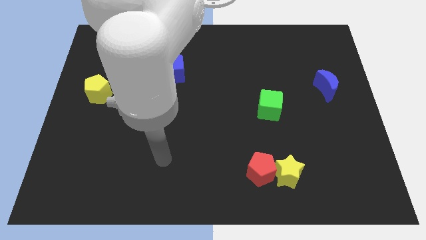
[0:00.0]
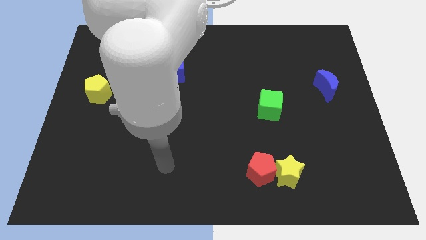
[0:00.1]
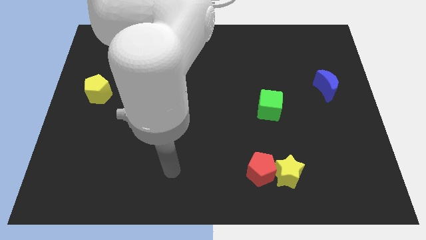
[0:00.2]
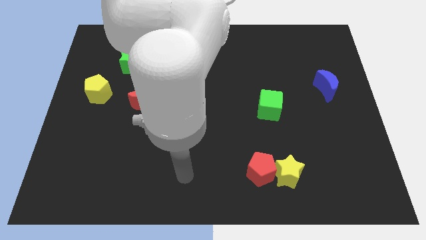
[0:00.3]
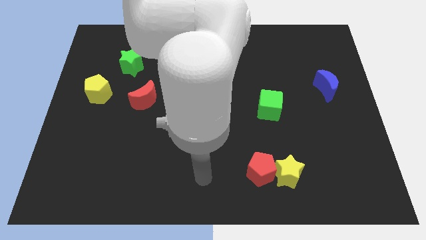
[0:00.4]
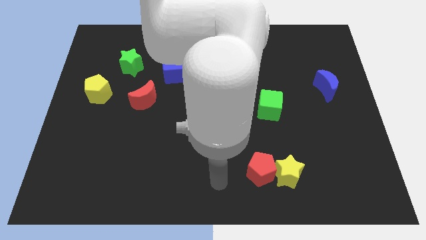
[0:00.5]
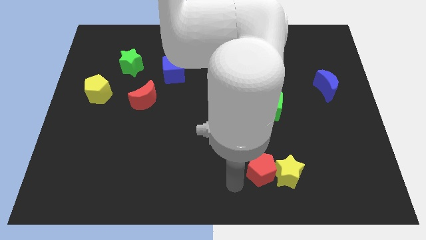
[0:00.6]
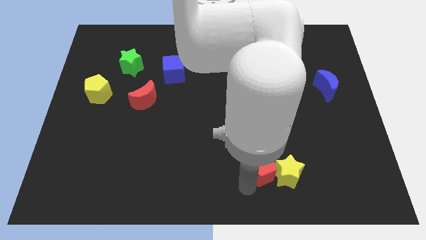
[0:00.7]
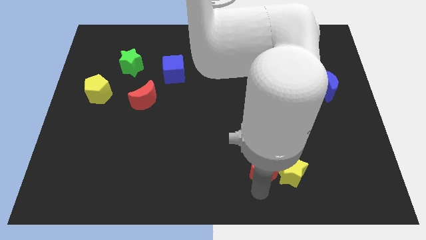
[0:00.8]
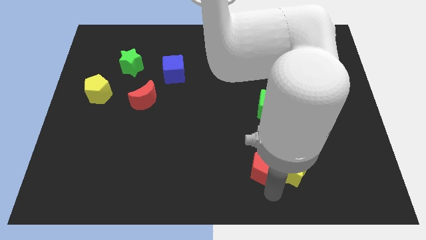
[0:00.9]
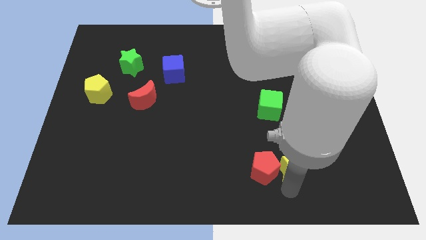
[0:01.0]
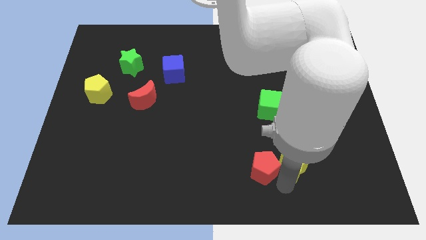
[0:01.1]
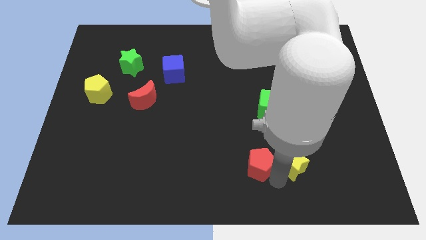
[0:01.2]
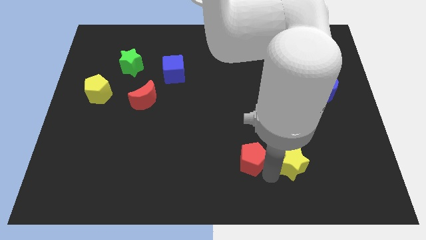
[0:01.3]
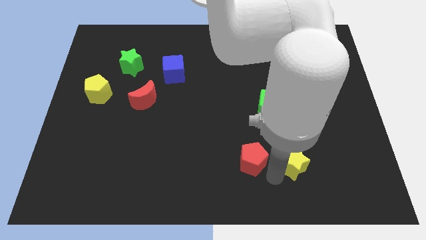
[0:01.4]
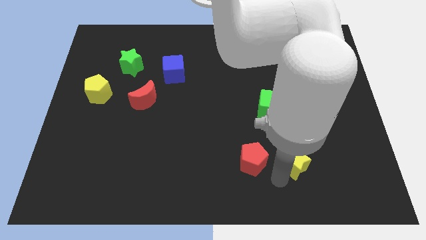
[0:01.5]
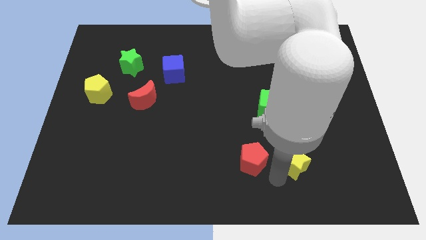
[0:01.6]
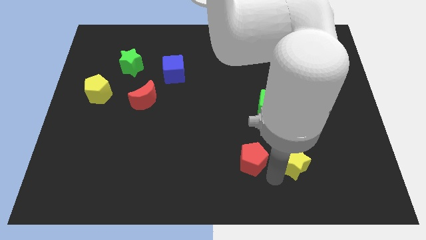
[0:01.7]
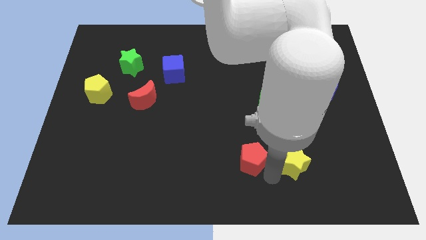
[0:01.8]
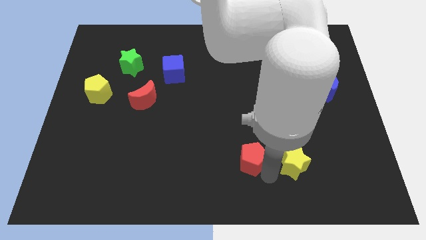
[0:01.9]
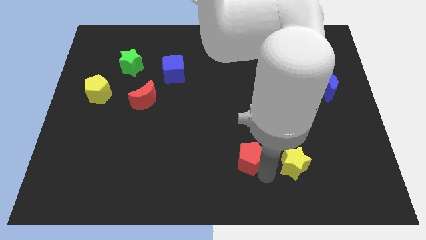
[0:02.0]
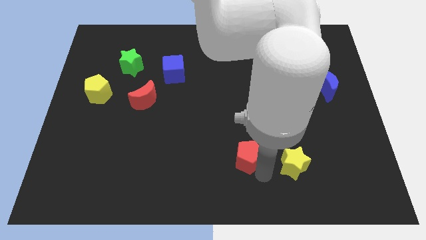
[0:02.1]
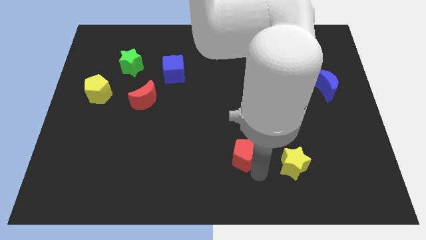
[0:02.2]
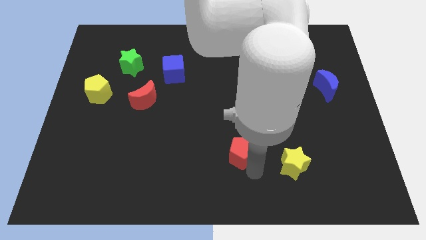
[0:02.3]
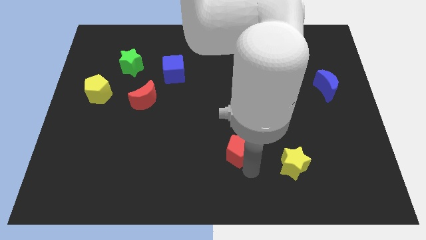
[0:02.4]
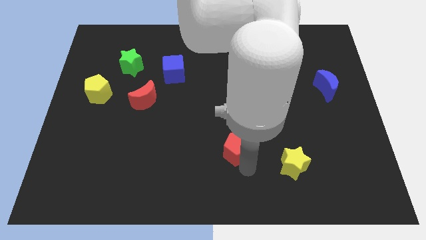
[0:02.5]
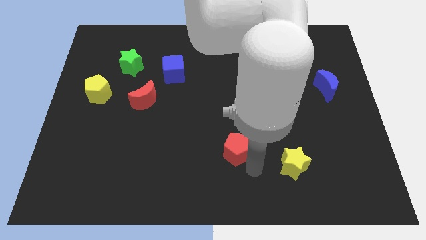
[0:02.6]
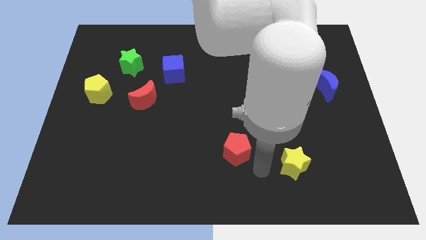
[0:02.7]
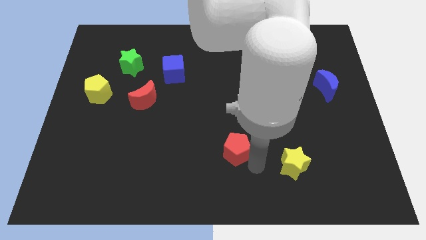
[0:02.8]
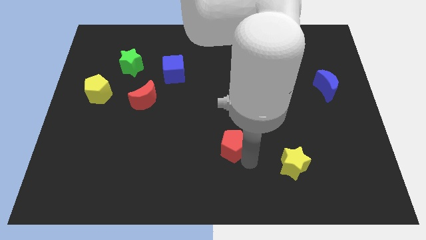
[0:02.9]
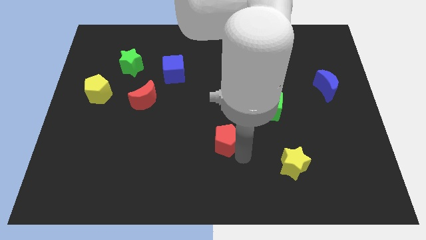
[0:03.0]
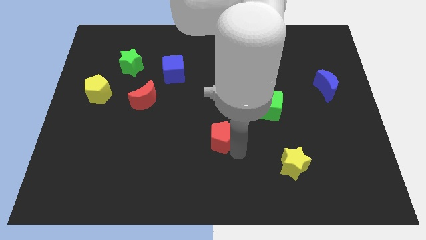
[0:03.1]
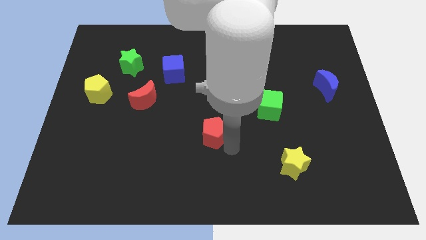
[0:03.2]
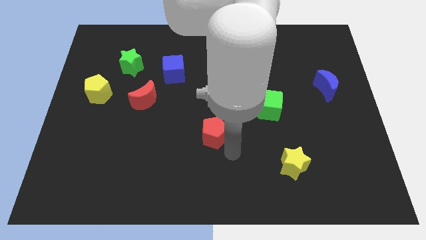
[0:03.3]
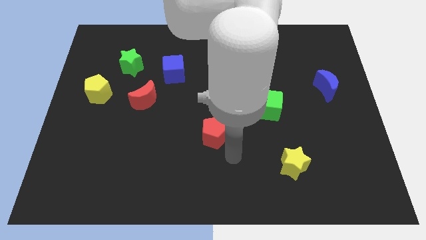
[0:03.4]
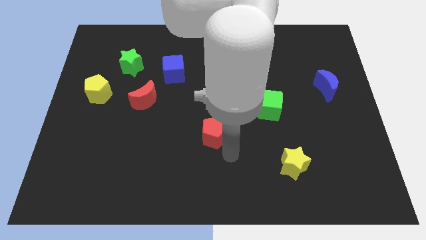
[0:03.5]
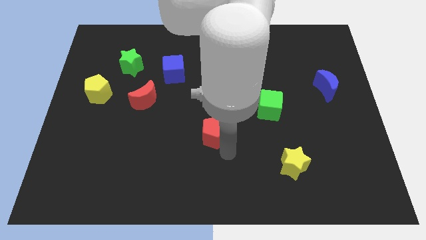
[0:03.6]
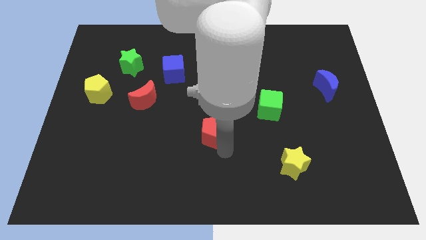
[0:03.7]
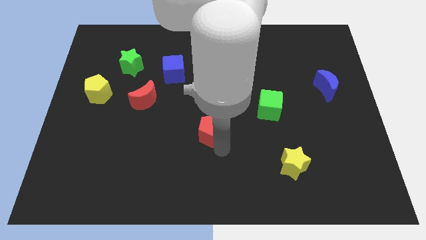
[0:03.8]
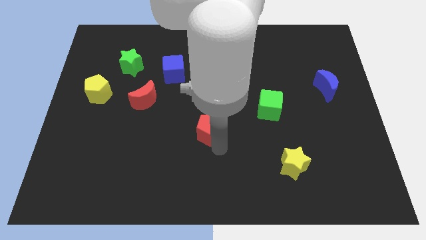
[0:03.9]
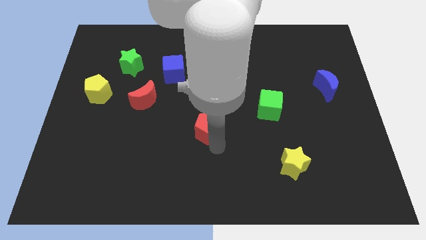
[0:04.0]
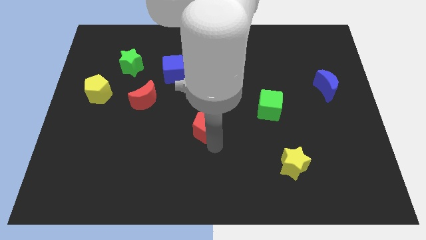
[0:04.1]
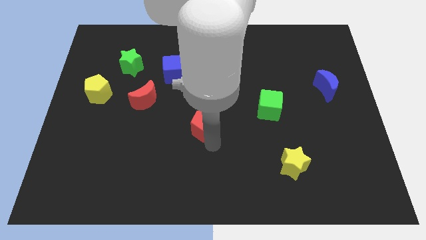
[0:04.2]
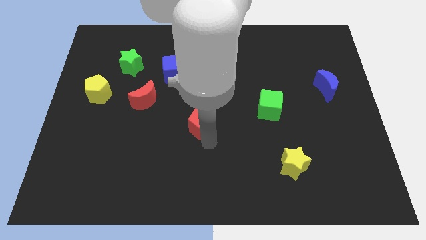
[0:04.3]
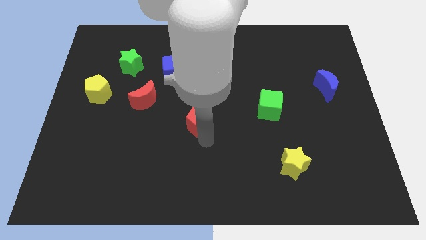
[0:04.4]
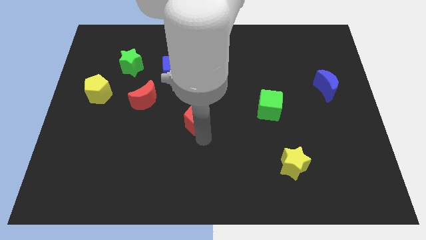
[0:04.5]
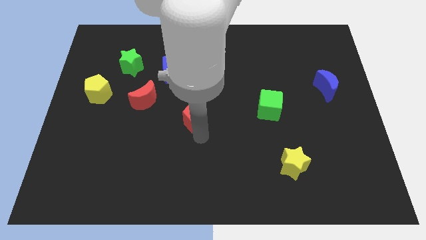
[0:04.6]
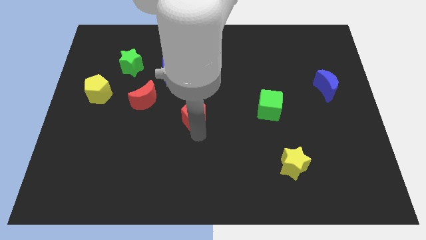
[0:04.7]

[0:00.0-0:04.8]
move the red pentagon diagonally up and left

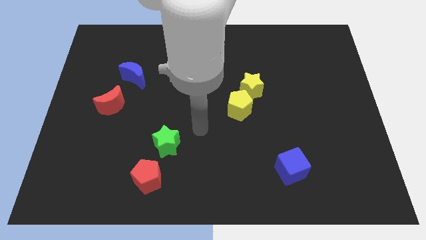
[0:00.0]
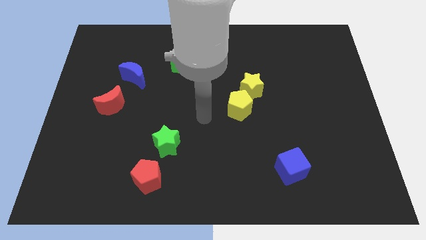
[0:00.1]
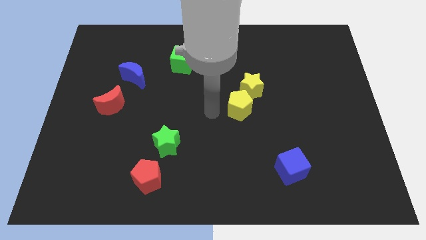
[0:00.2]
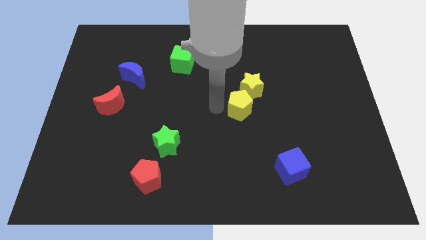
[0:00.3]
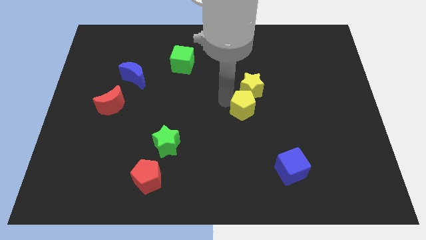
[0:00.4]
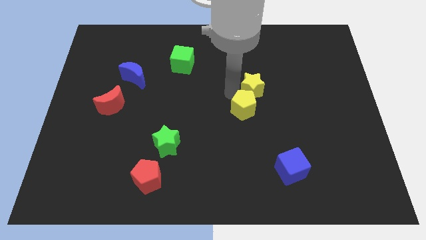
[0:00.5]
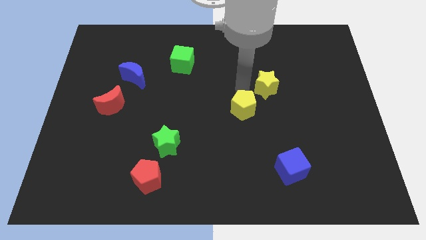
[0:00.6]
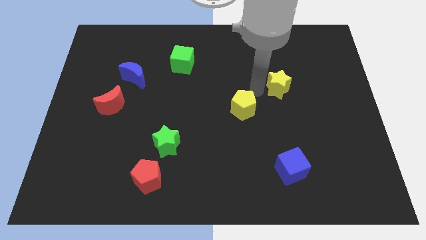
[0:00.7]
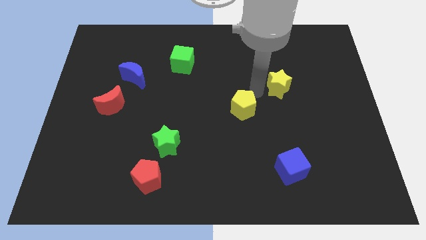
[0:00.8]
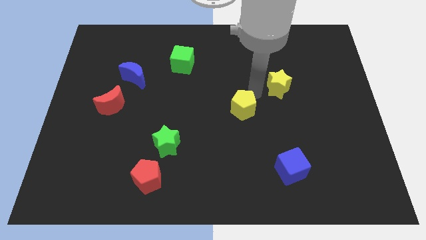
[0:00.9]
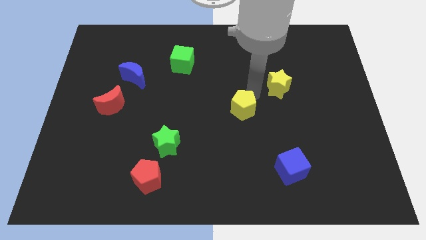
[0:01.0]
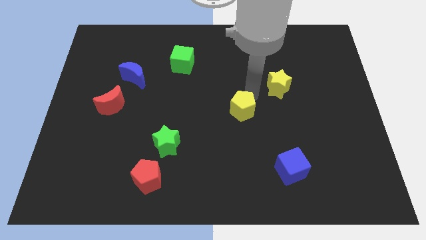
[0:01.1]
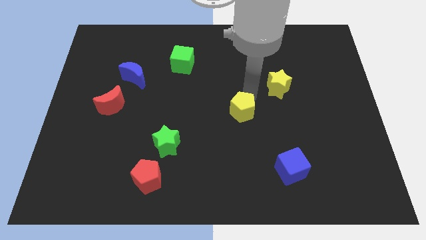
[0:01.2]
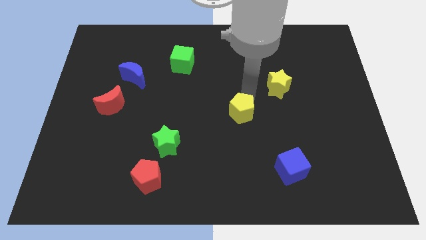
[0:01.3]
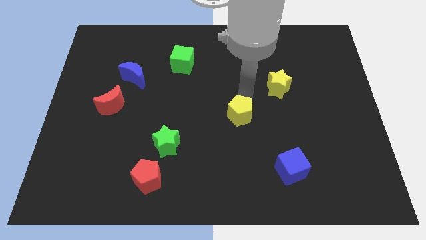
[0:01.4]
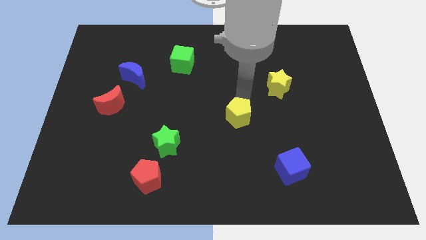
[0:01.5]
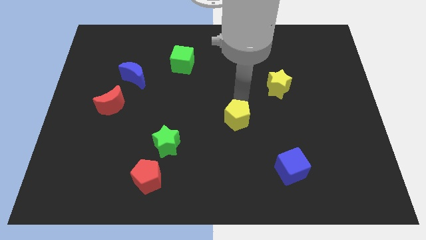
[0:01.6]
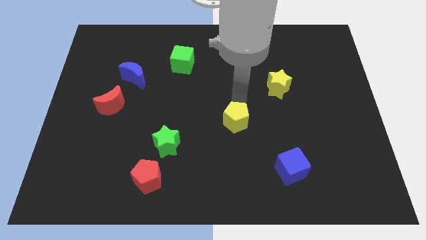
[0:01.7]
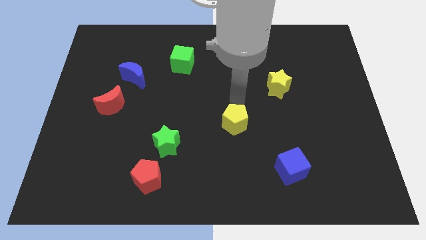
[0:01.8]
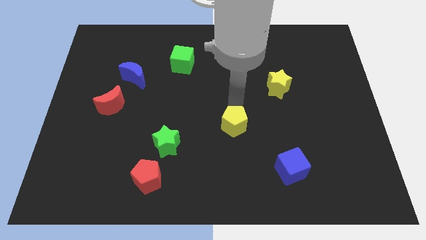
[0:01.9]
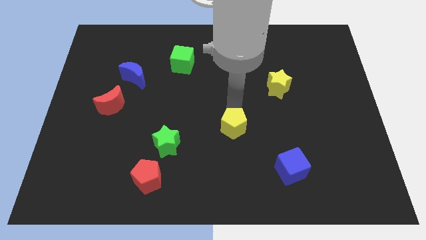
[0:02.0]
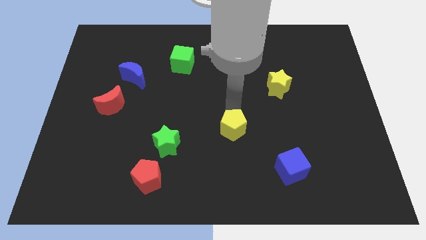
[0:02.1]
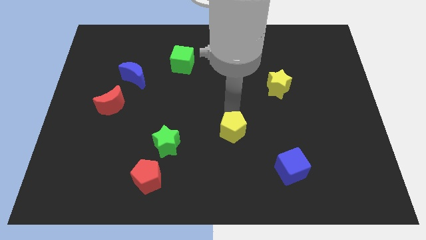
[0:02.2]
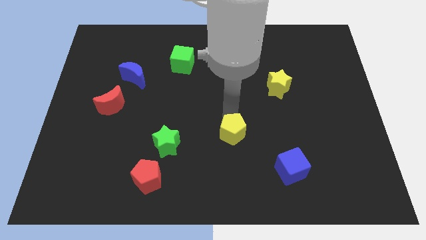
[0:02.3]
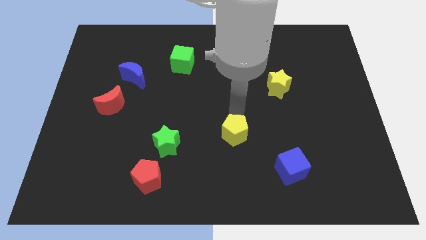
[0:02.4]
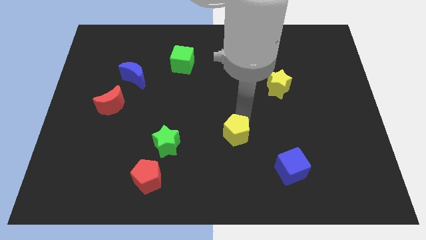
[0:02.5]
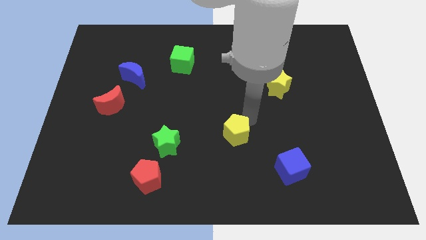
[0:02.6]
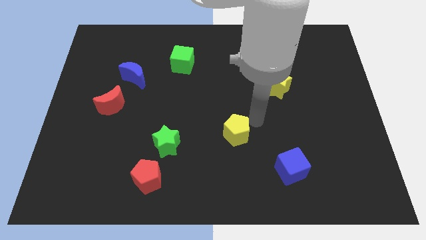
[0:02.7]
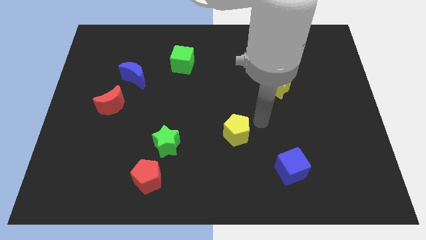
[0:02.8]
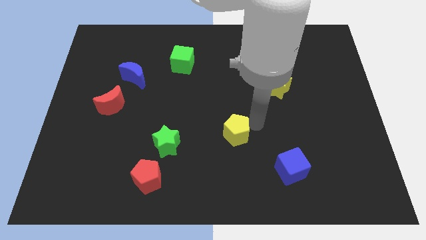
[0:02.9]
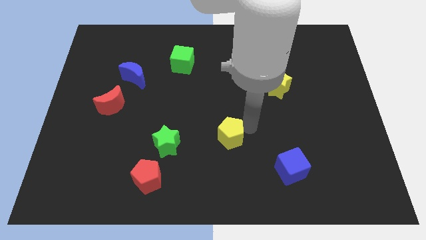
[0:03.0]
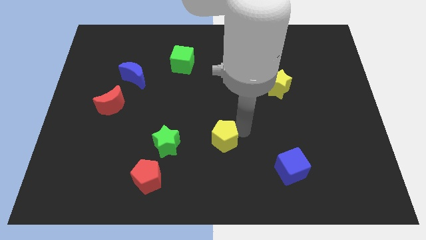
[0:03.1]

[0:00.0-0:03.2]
slightly move the yellow pentagon downwards and left diagonally
